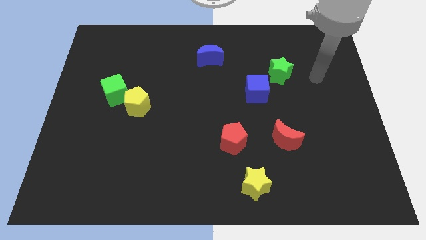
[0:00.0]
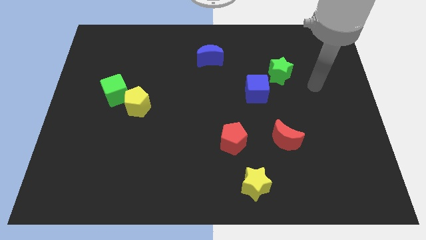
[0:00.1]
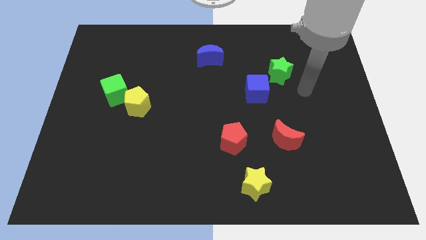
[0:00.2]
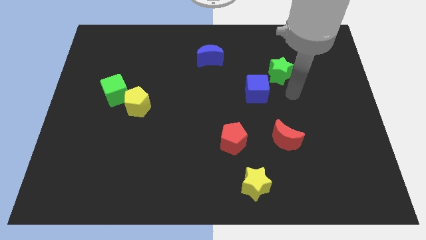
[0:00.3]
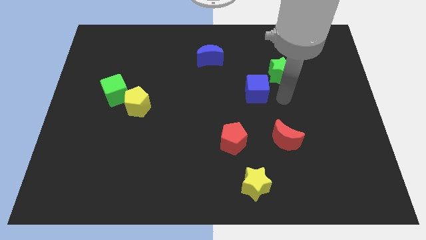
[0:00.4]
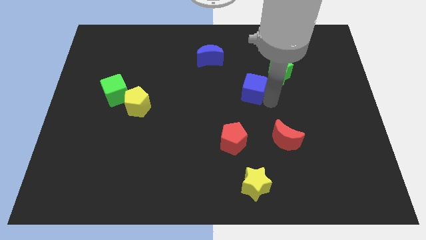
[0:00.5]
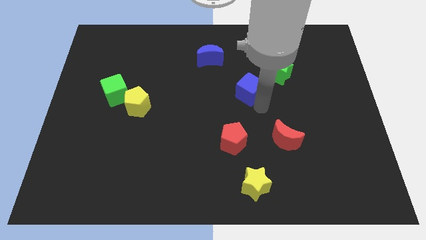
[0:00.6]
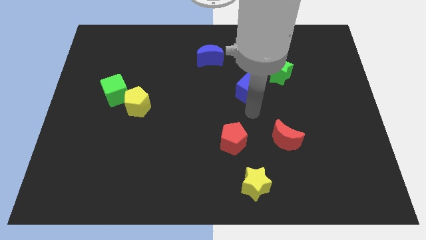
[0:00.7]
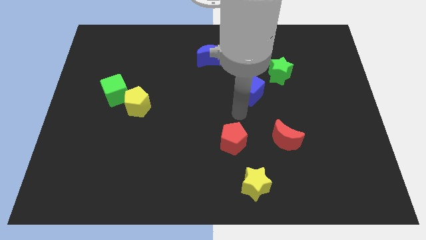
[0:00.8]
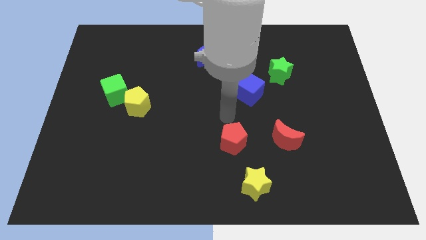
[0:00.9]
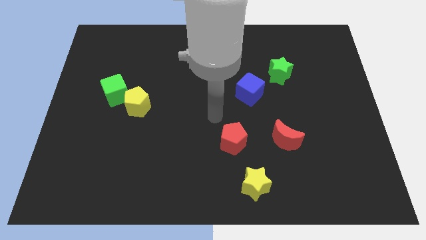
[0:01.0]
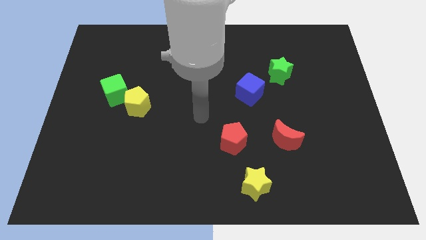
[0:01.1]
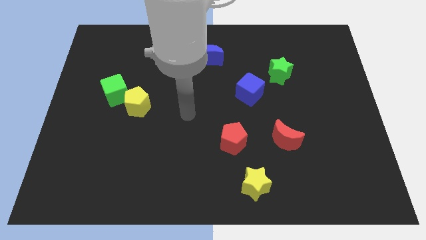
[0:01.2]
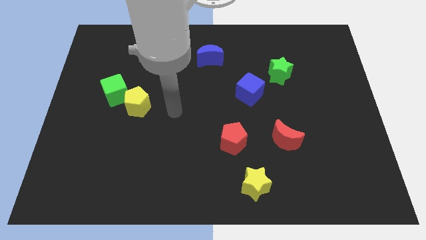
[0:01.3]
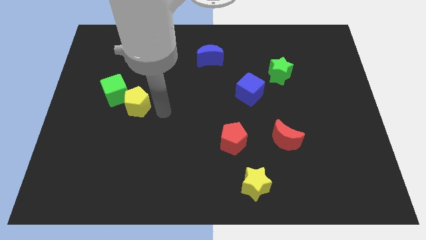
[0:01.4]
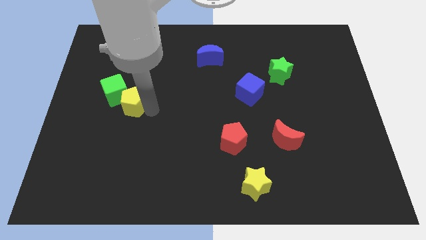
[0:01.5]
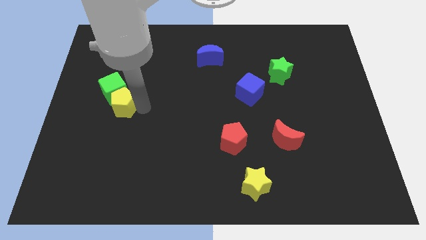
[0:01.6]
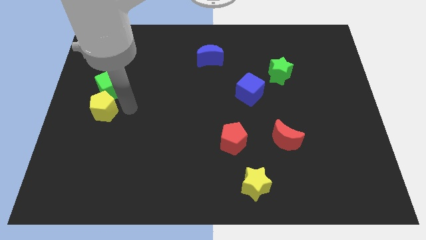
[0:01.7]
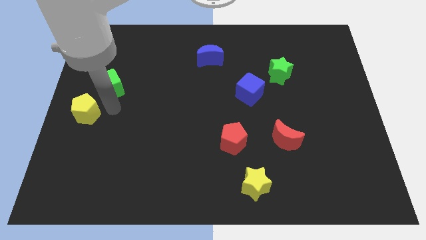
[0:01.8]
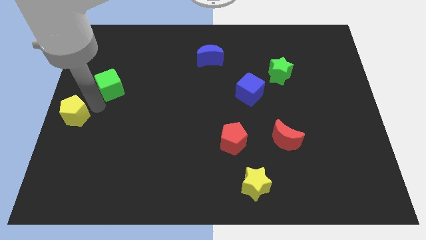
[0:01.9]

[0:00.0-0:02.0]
pull the green cube apart from the yellow pentagon

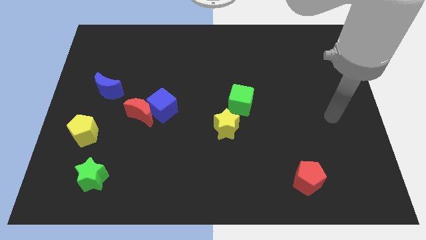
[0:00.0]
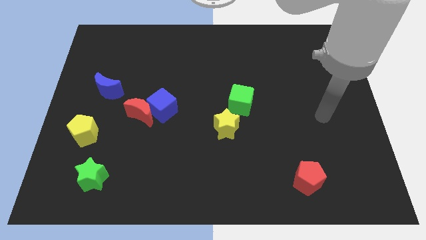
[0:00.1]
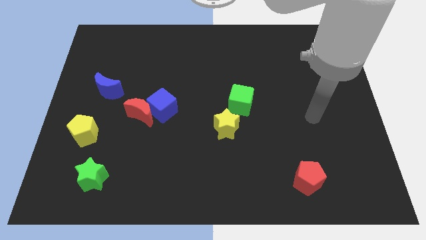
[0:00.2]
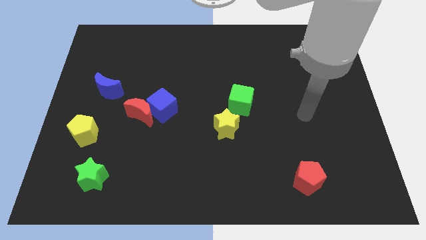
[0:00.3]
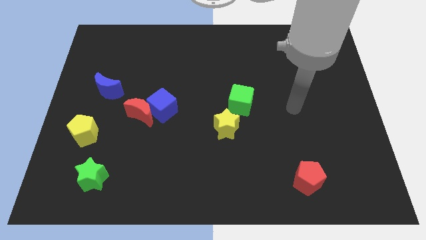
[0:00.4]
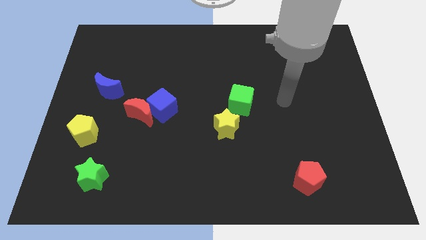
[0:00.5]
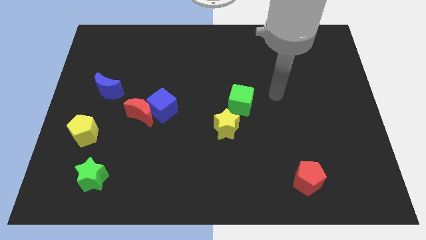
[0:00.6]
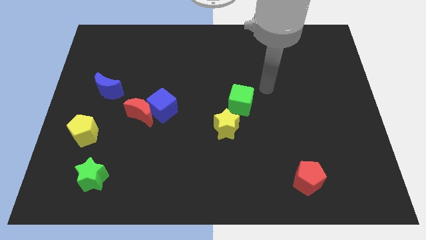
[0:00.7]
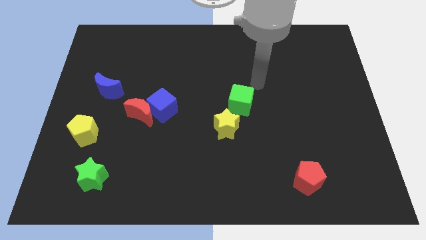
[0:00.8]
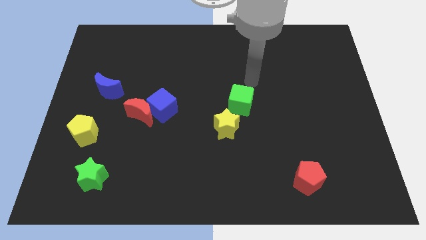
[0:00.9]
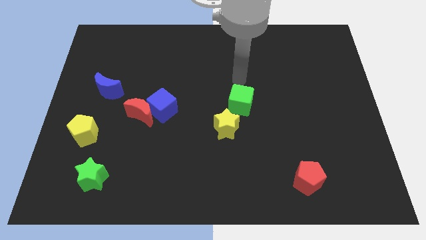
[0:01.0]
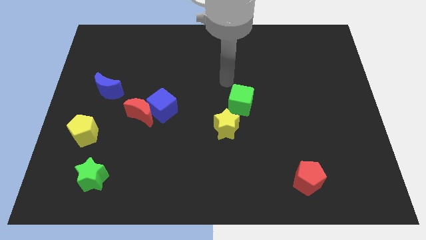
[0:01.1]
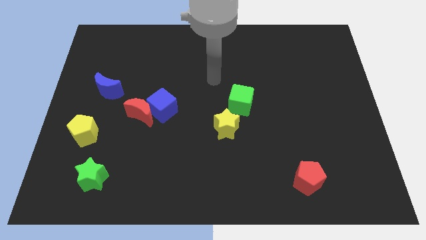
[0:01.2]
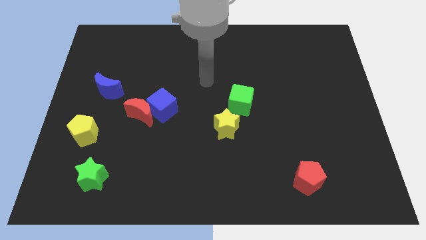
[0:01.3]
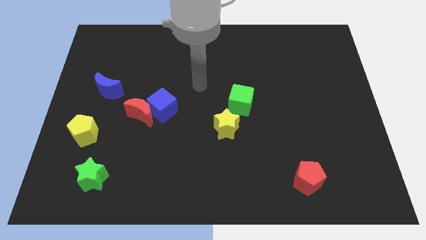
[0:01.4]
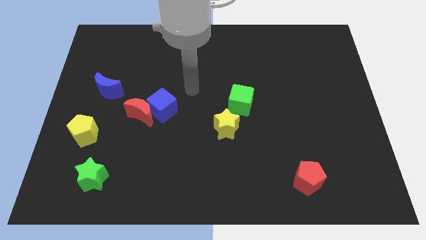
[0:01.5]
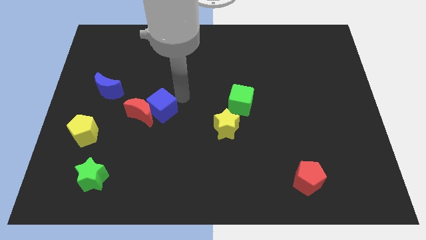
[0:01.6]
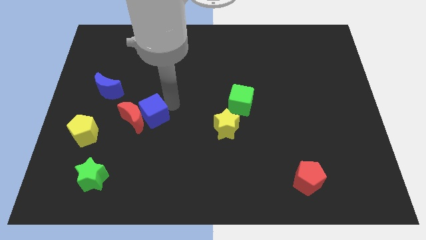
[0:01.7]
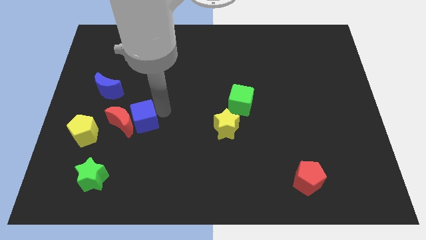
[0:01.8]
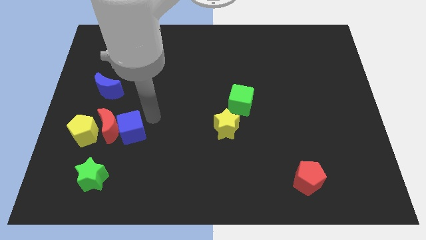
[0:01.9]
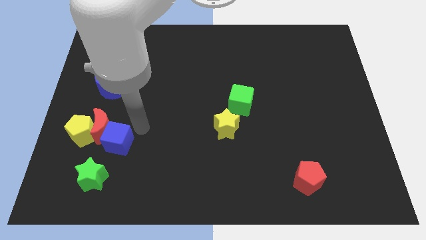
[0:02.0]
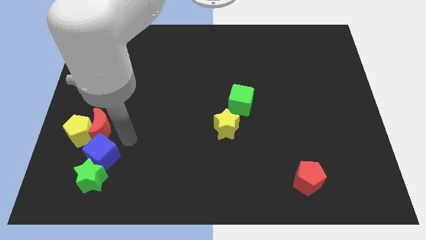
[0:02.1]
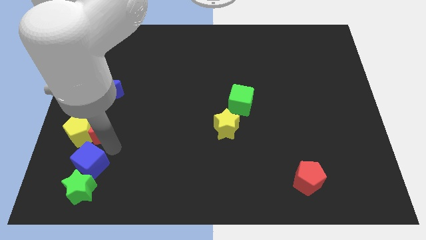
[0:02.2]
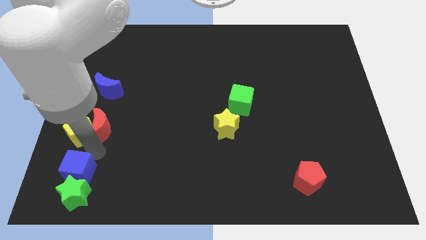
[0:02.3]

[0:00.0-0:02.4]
separate the red moon from the blue cube

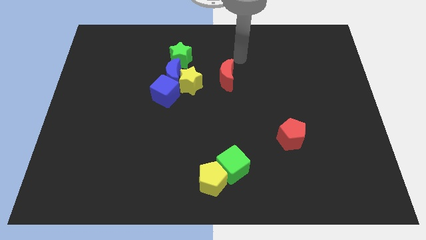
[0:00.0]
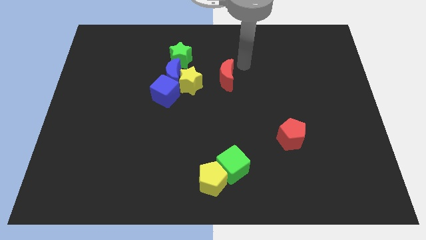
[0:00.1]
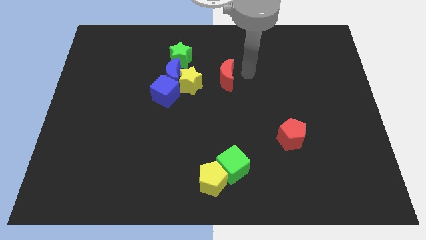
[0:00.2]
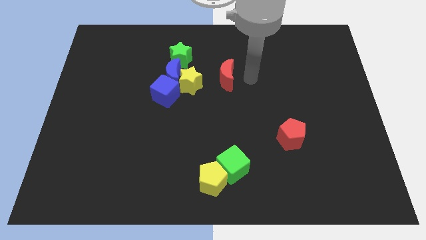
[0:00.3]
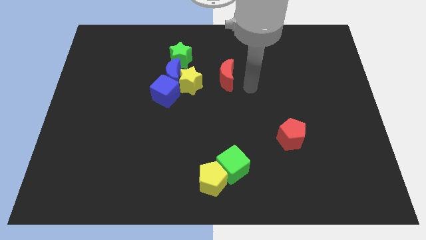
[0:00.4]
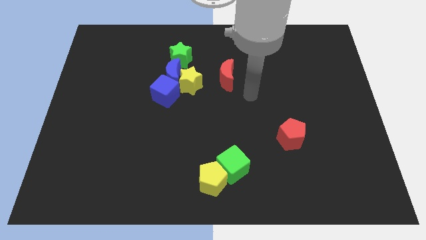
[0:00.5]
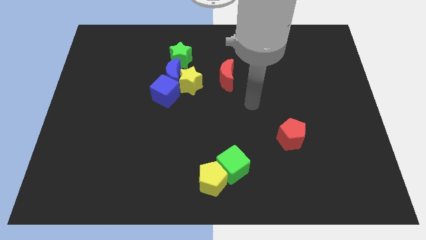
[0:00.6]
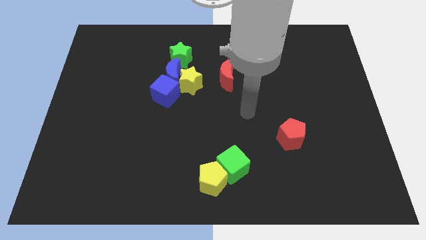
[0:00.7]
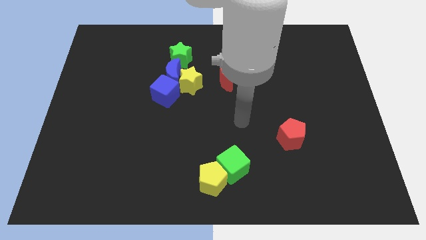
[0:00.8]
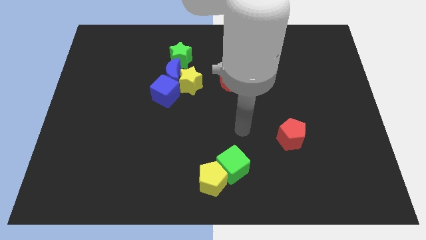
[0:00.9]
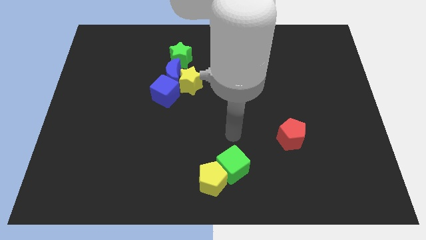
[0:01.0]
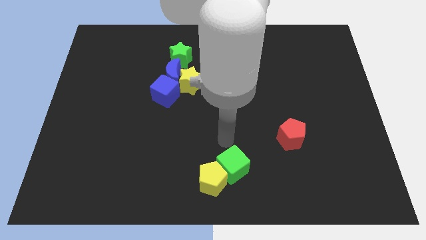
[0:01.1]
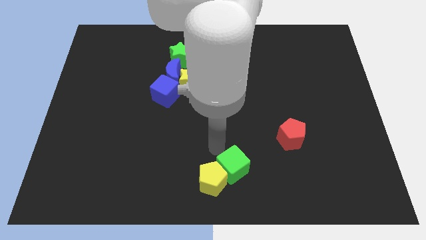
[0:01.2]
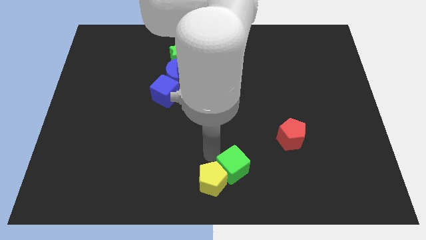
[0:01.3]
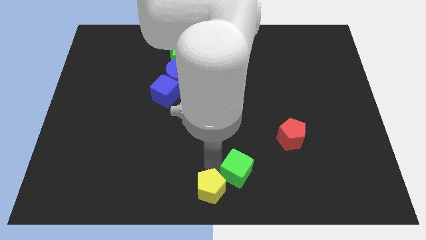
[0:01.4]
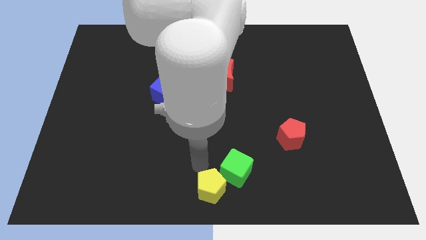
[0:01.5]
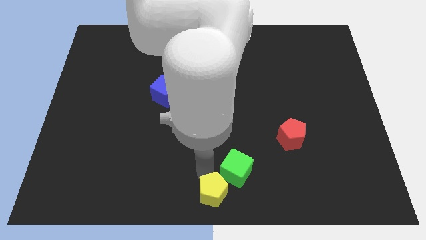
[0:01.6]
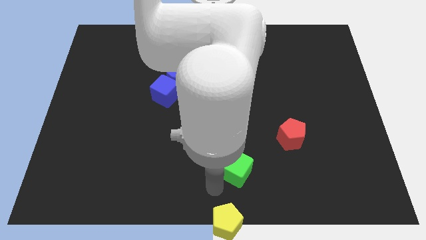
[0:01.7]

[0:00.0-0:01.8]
separate the green cube from the yellow pentagon

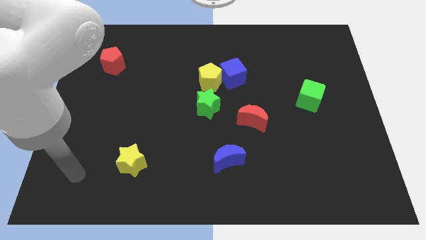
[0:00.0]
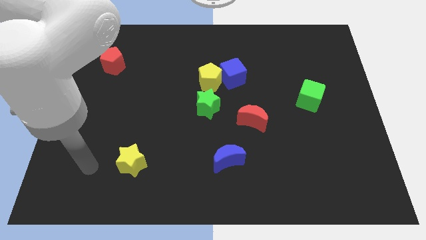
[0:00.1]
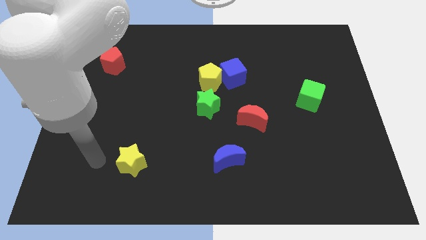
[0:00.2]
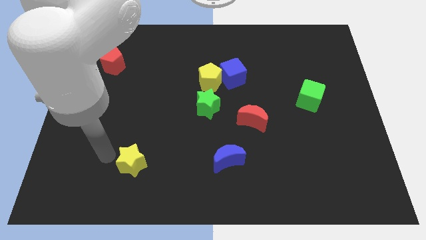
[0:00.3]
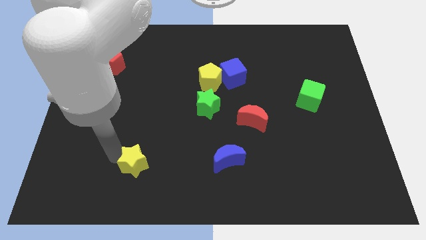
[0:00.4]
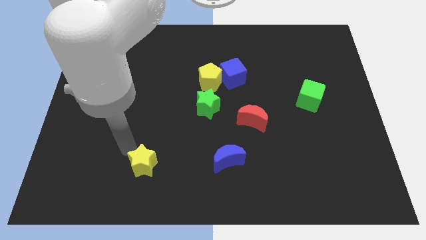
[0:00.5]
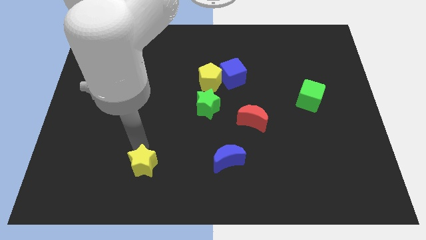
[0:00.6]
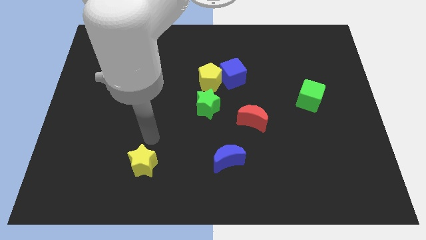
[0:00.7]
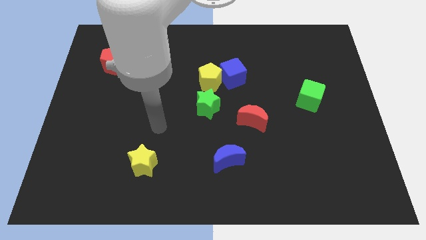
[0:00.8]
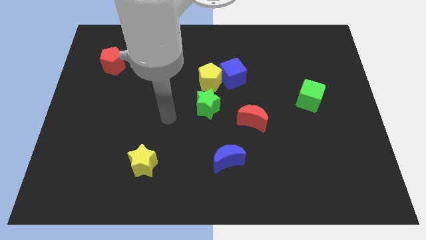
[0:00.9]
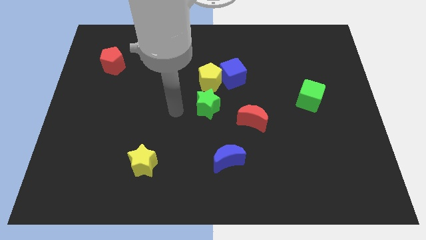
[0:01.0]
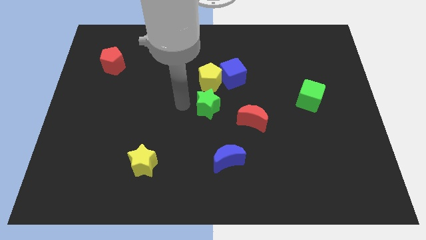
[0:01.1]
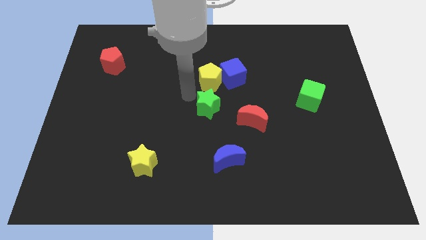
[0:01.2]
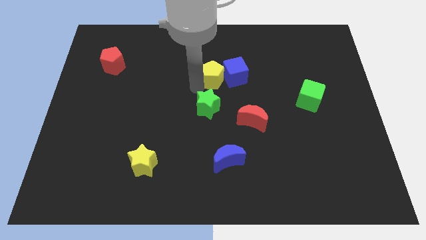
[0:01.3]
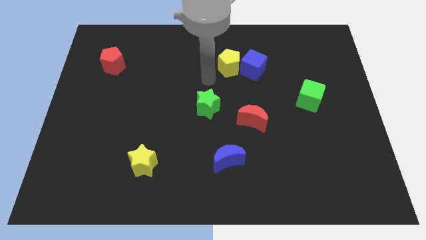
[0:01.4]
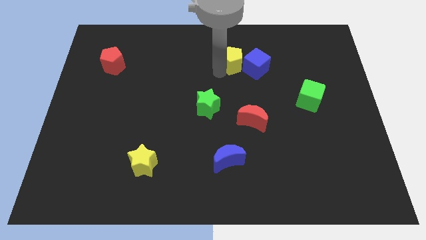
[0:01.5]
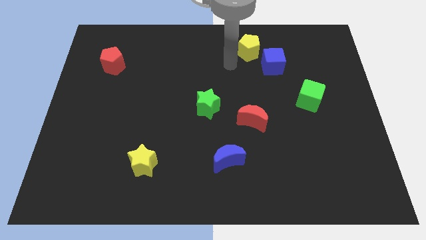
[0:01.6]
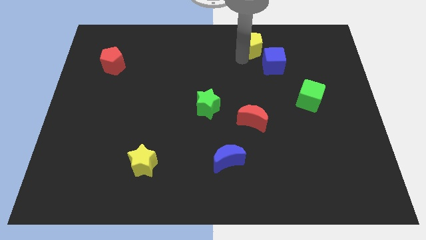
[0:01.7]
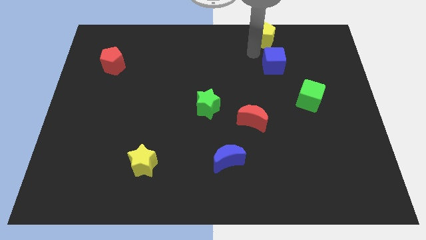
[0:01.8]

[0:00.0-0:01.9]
move the blue cube away from the yellow pentagon

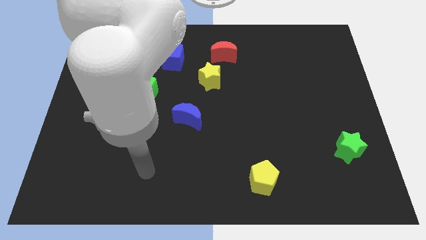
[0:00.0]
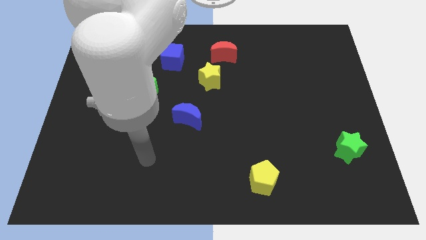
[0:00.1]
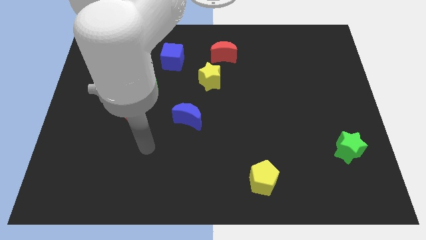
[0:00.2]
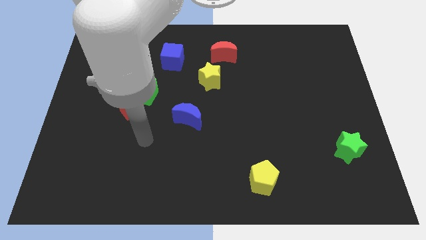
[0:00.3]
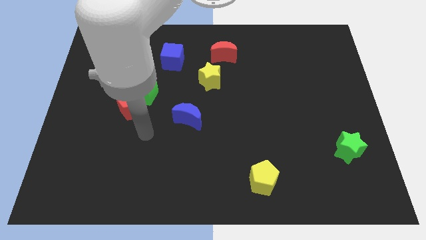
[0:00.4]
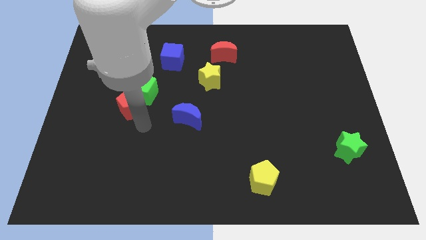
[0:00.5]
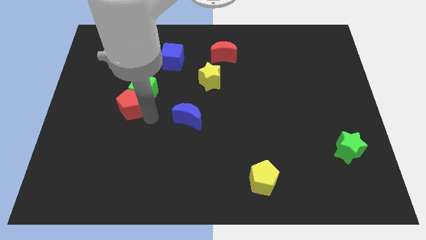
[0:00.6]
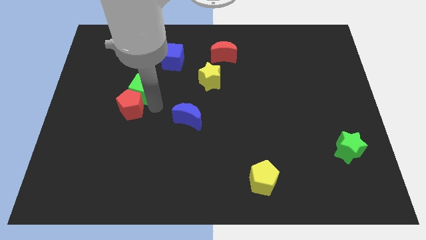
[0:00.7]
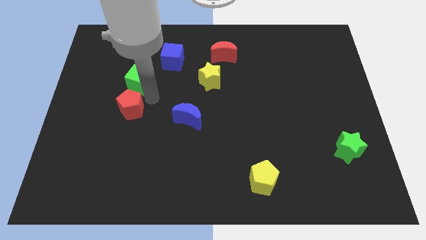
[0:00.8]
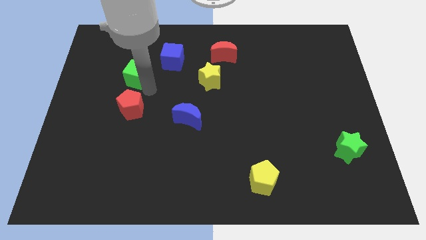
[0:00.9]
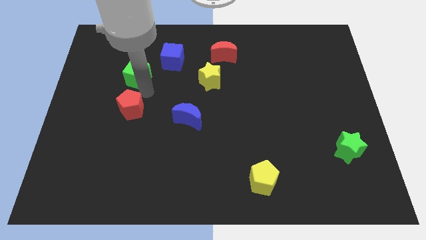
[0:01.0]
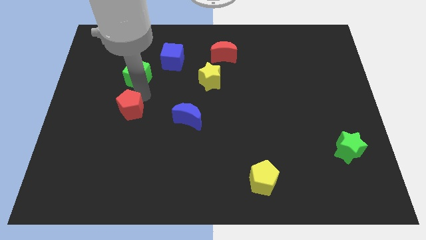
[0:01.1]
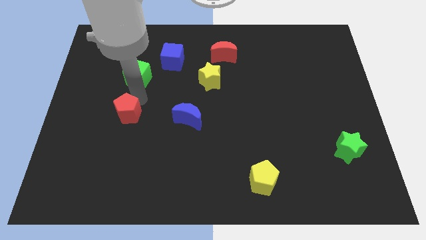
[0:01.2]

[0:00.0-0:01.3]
move the red pentagon away from the green cube
